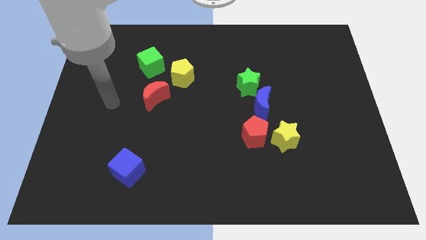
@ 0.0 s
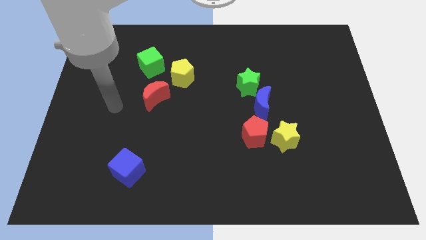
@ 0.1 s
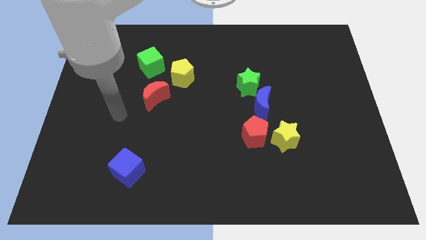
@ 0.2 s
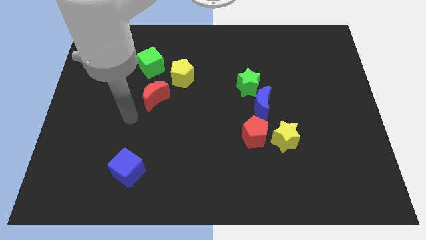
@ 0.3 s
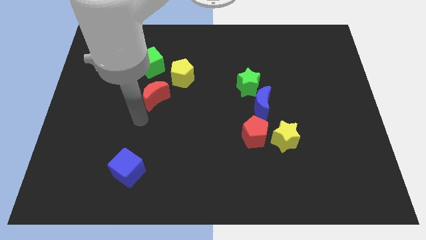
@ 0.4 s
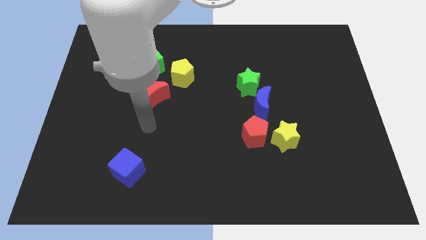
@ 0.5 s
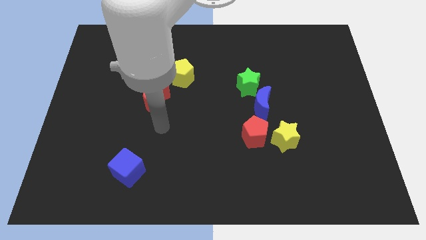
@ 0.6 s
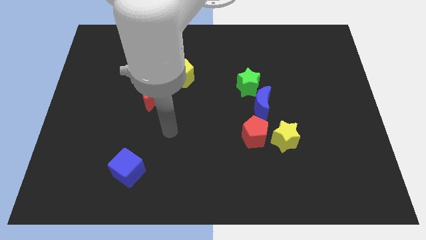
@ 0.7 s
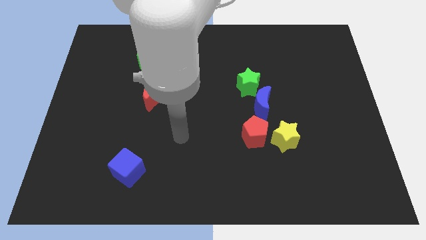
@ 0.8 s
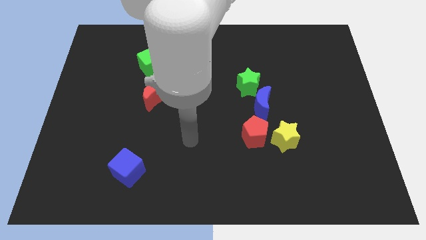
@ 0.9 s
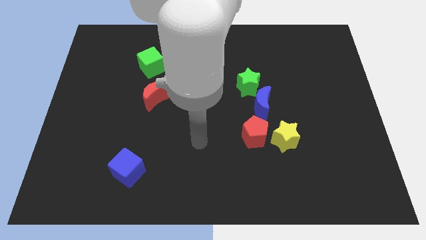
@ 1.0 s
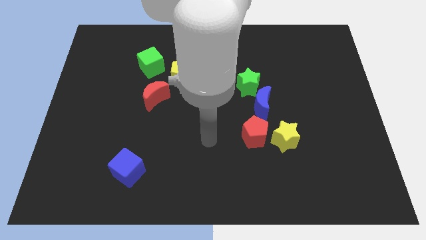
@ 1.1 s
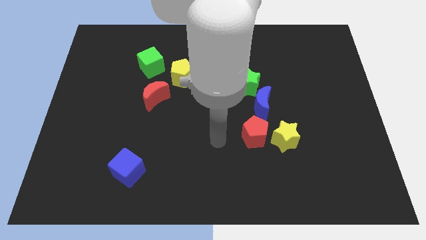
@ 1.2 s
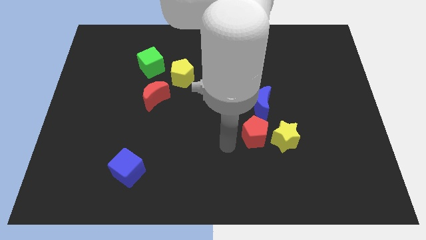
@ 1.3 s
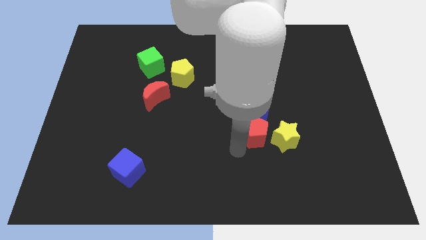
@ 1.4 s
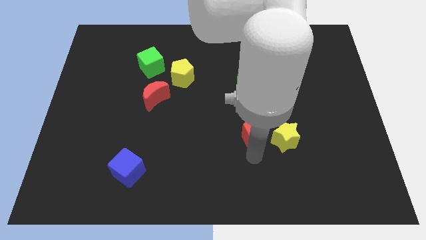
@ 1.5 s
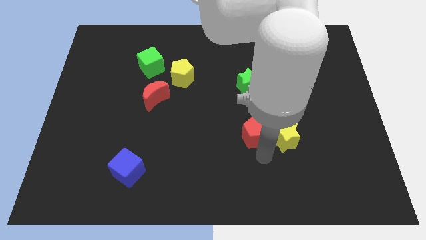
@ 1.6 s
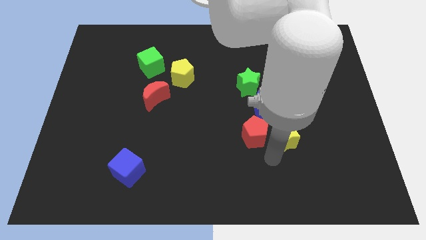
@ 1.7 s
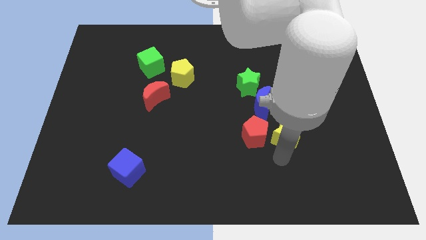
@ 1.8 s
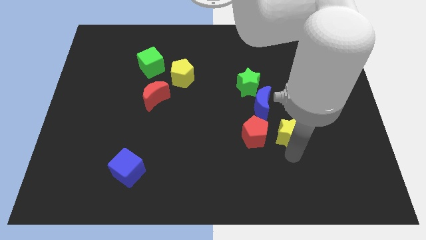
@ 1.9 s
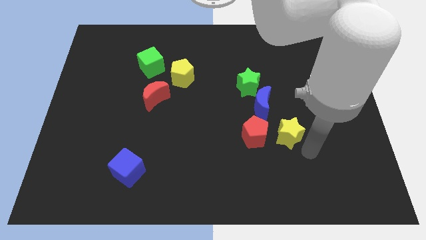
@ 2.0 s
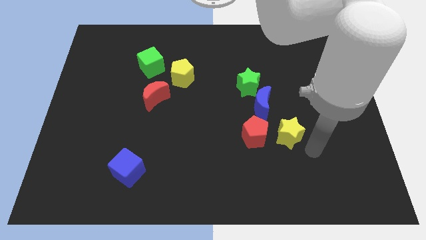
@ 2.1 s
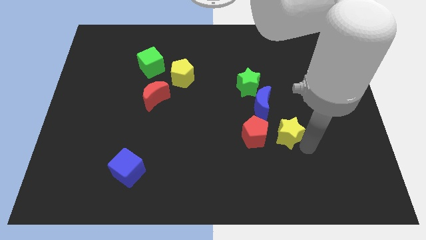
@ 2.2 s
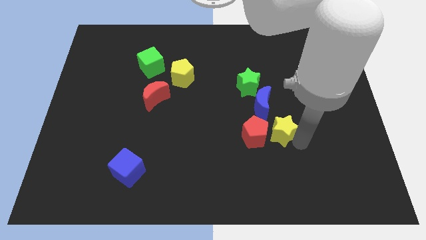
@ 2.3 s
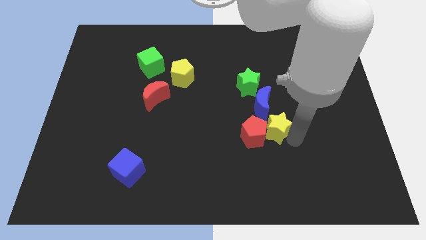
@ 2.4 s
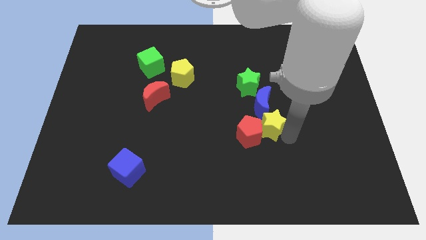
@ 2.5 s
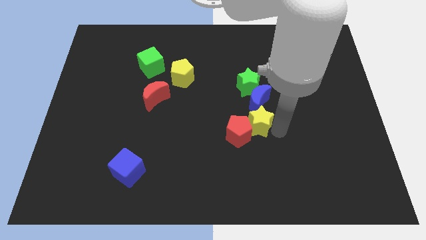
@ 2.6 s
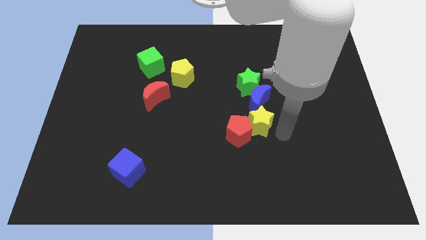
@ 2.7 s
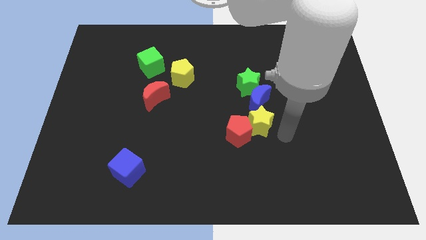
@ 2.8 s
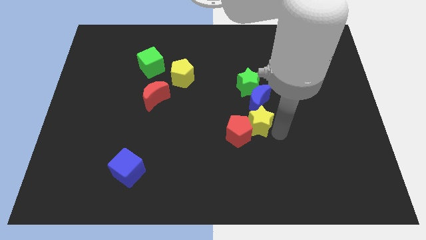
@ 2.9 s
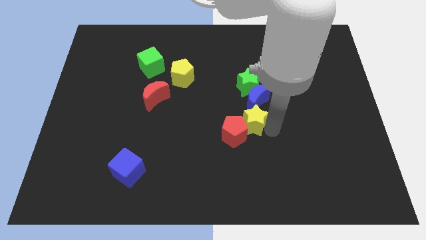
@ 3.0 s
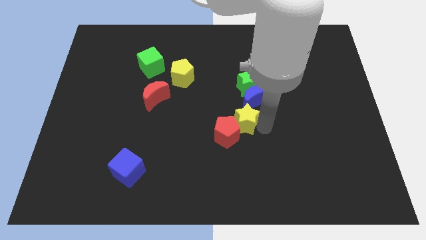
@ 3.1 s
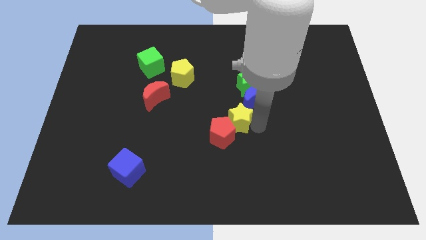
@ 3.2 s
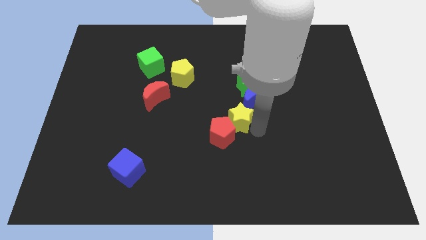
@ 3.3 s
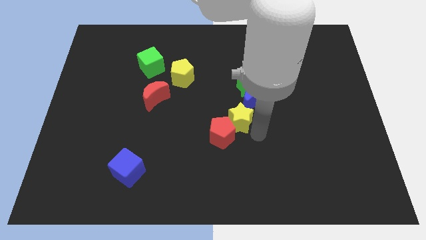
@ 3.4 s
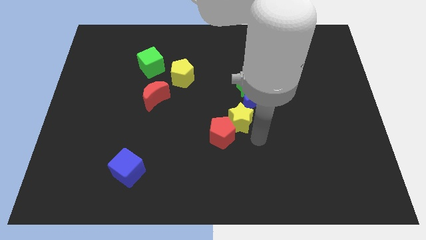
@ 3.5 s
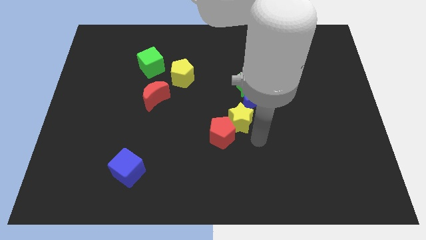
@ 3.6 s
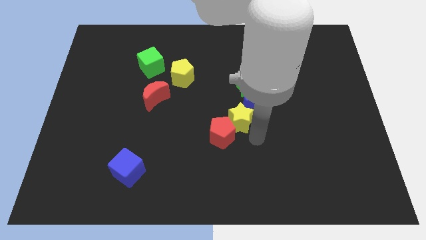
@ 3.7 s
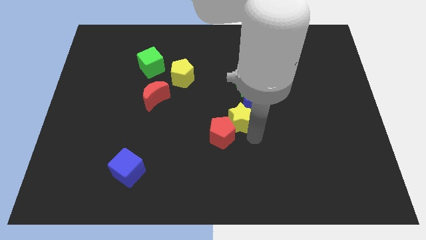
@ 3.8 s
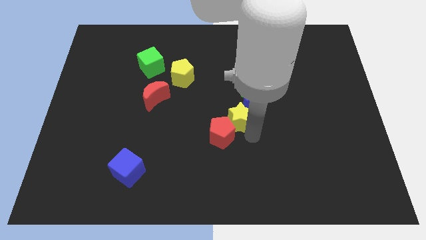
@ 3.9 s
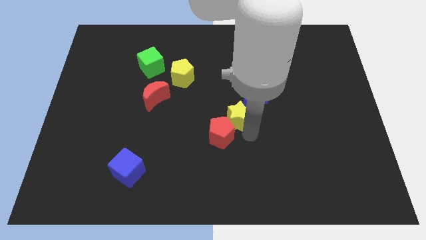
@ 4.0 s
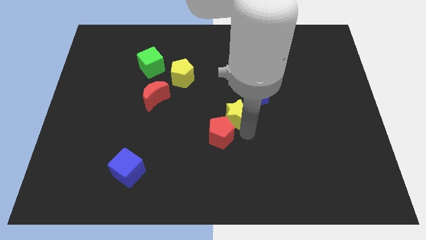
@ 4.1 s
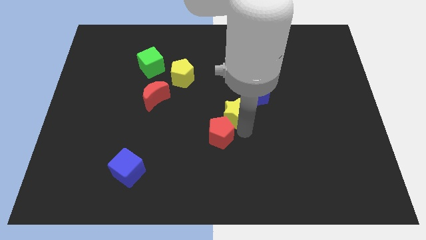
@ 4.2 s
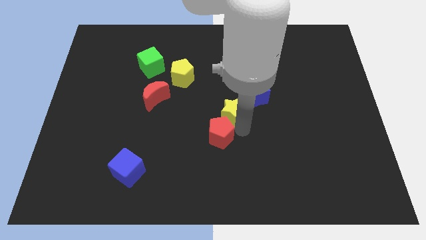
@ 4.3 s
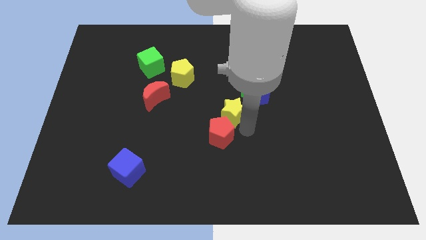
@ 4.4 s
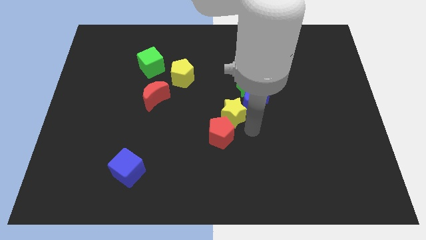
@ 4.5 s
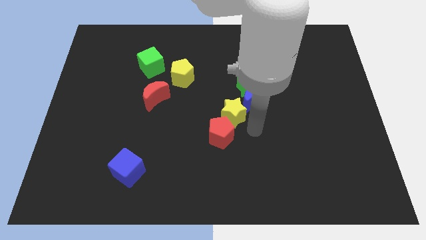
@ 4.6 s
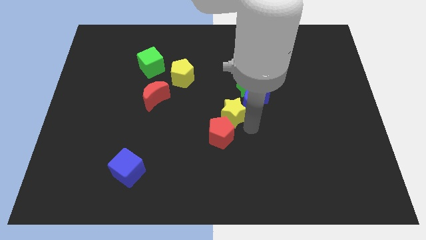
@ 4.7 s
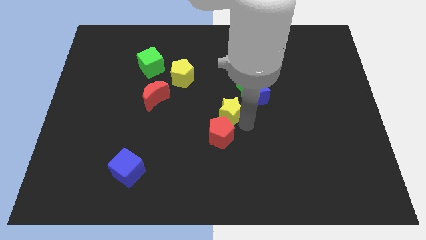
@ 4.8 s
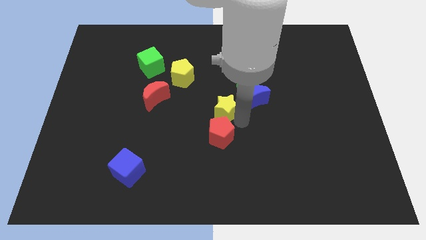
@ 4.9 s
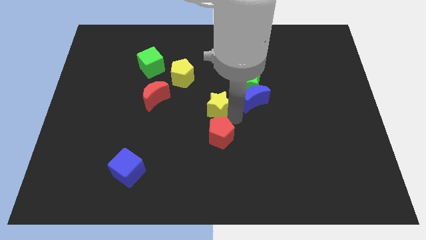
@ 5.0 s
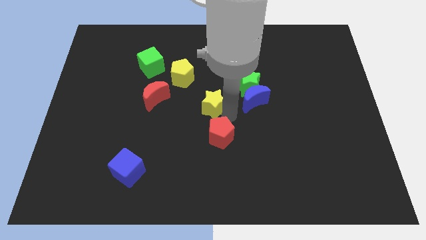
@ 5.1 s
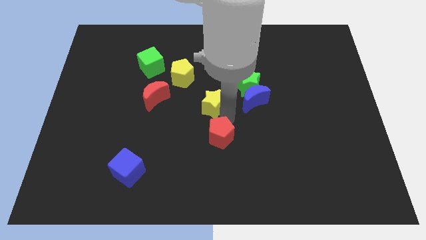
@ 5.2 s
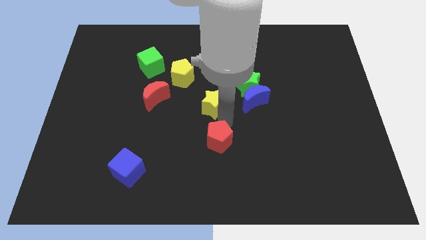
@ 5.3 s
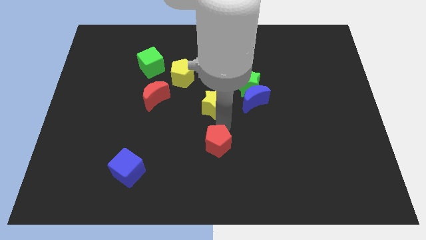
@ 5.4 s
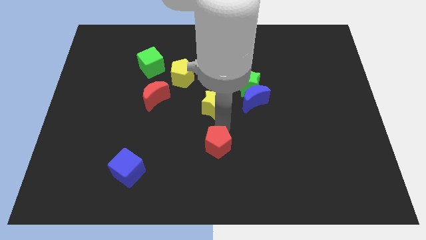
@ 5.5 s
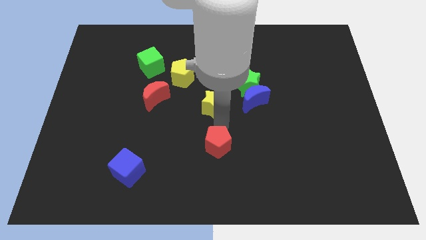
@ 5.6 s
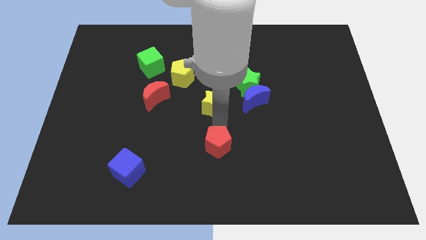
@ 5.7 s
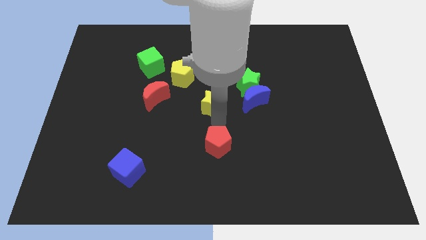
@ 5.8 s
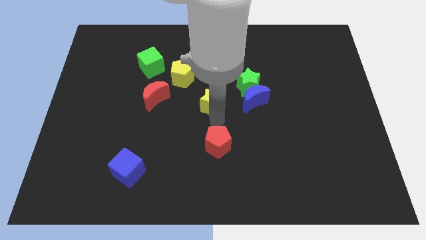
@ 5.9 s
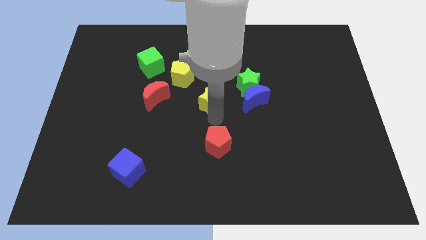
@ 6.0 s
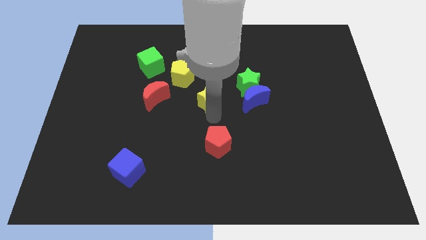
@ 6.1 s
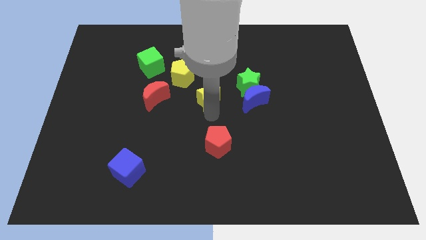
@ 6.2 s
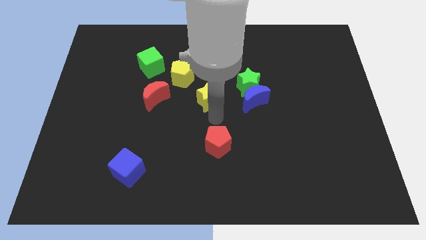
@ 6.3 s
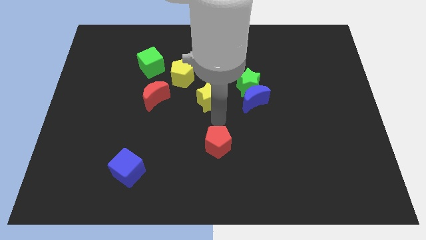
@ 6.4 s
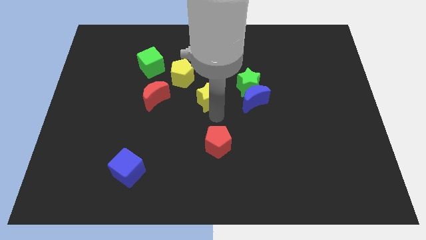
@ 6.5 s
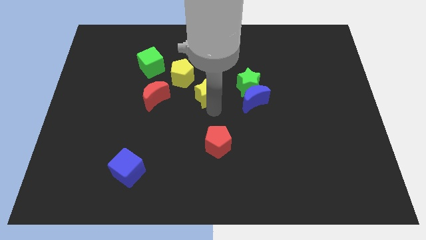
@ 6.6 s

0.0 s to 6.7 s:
push the yellow star upwards and then left

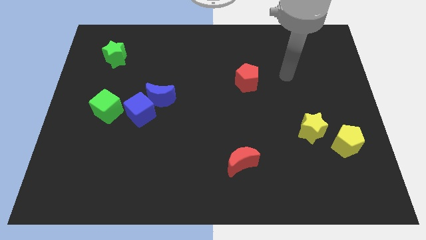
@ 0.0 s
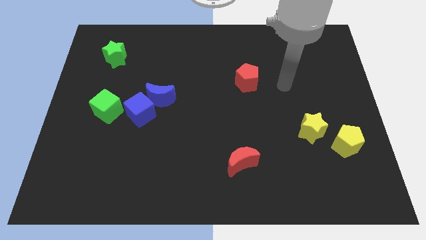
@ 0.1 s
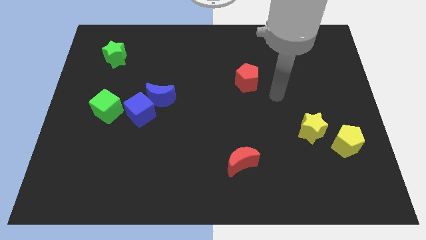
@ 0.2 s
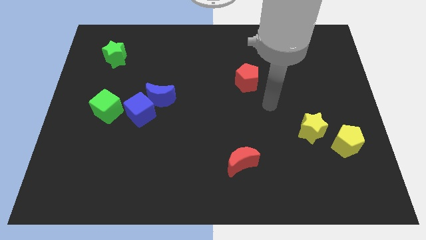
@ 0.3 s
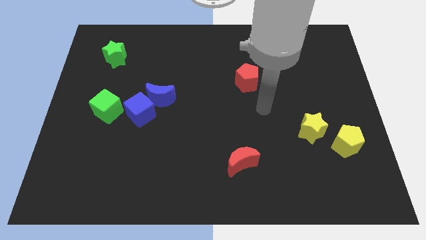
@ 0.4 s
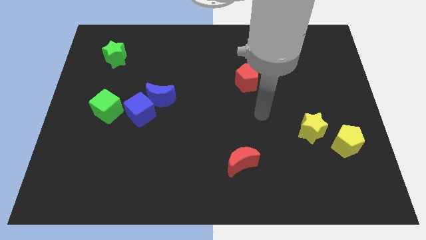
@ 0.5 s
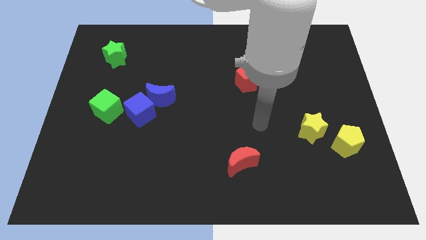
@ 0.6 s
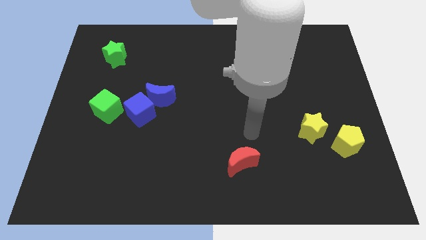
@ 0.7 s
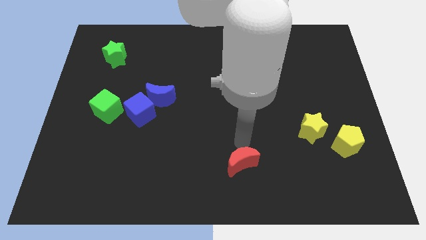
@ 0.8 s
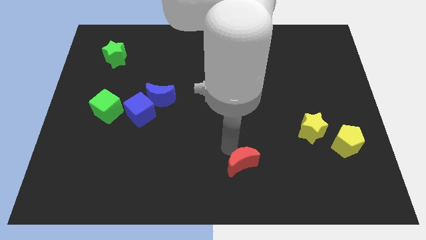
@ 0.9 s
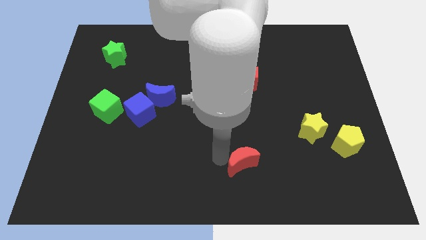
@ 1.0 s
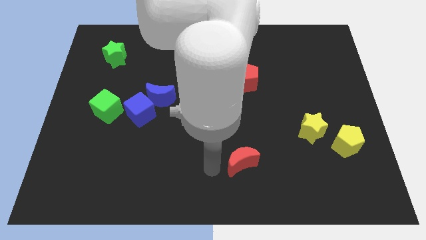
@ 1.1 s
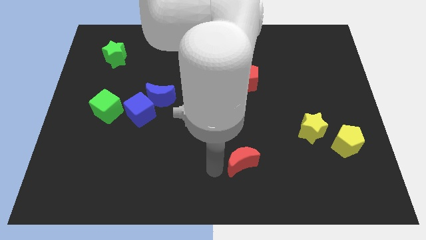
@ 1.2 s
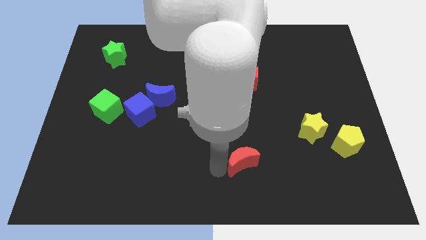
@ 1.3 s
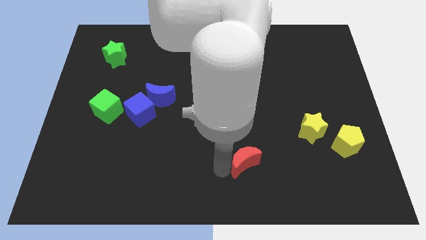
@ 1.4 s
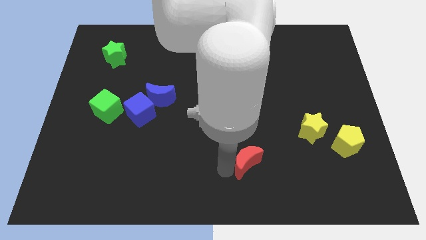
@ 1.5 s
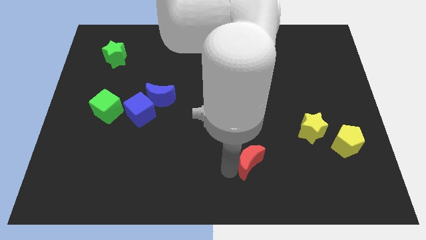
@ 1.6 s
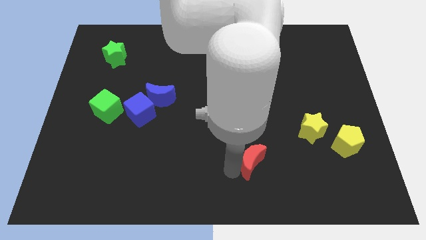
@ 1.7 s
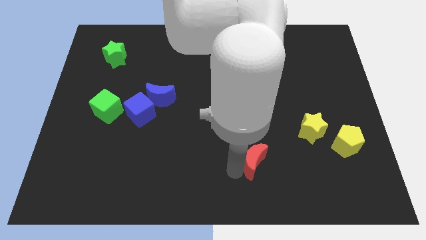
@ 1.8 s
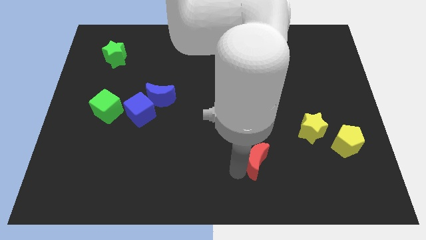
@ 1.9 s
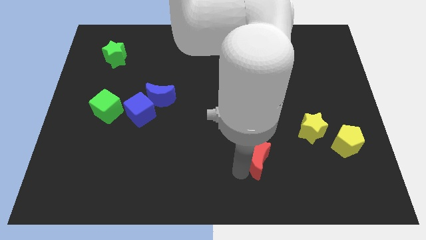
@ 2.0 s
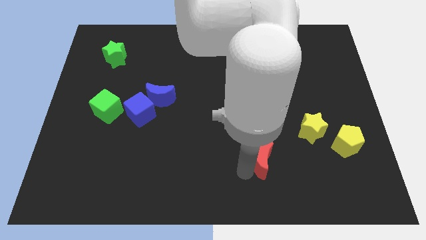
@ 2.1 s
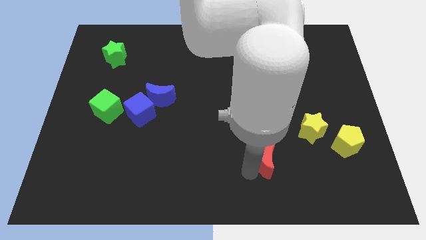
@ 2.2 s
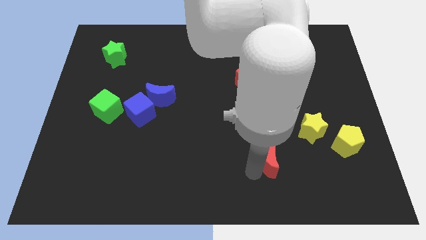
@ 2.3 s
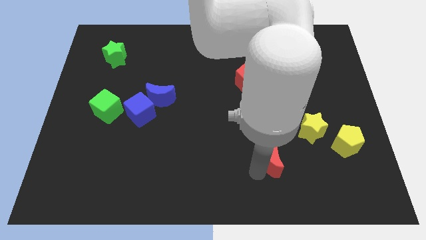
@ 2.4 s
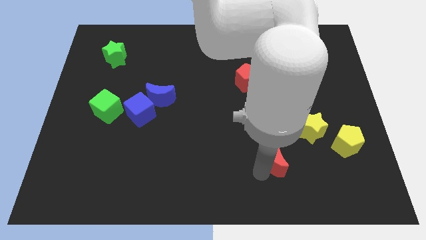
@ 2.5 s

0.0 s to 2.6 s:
slightly slide the red moon to the right
